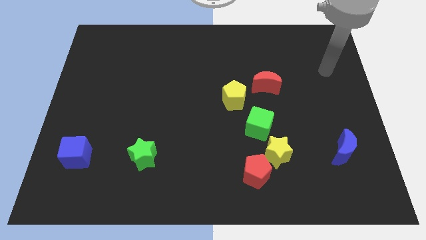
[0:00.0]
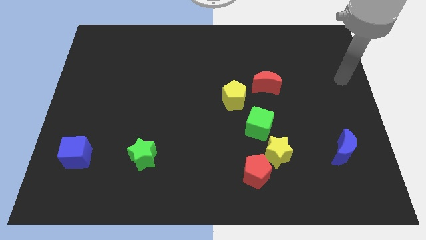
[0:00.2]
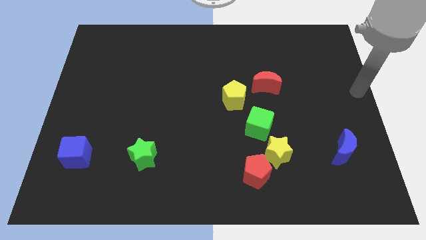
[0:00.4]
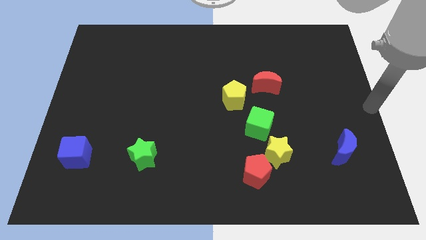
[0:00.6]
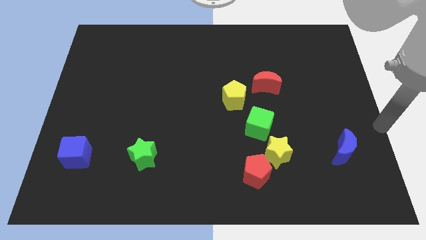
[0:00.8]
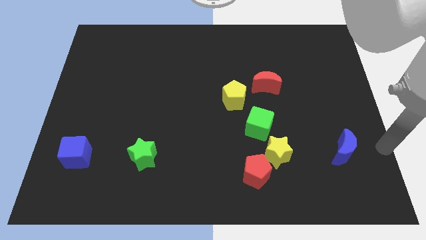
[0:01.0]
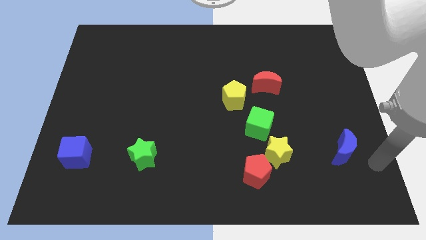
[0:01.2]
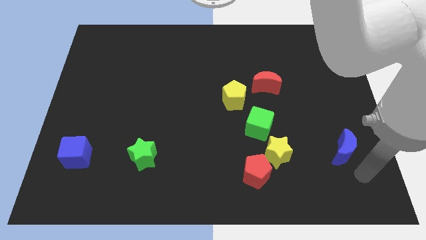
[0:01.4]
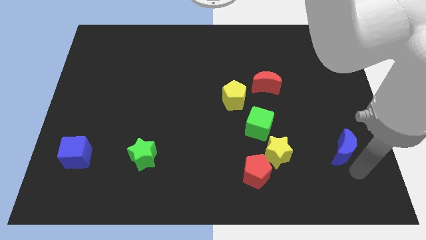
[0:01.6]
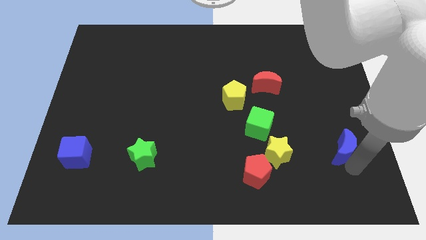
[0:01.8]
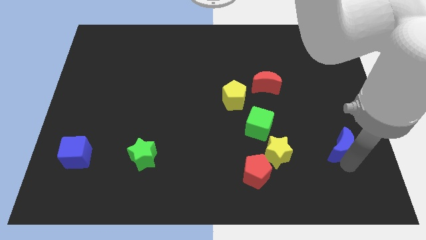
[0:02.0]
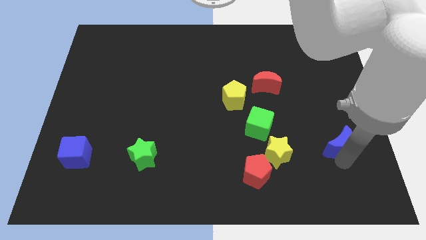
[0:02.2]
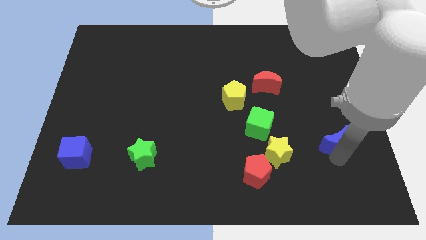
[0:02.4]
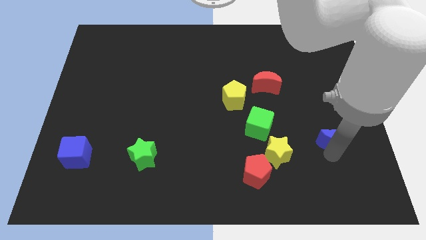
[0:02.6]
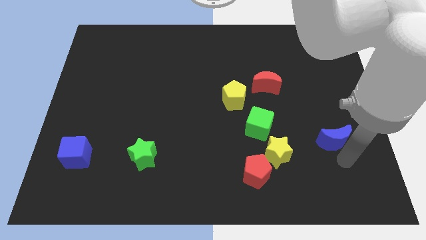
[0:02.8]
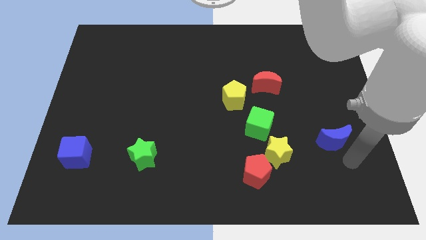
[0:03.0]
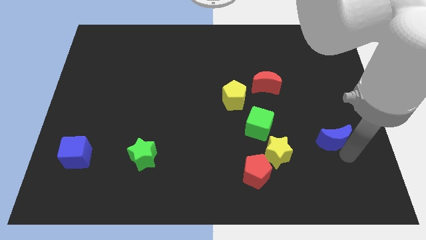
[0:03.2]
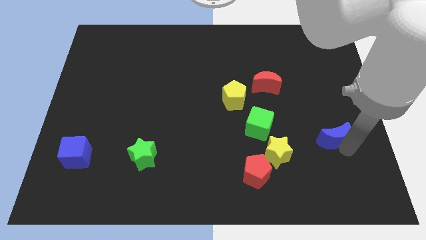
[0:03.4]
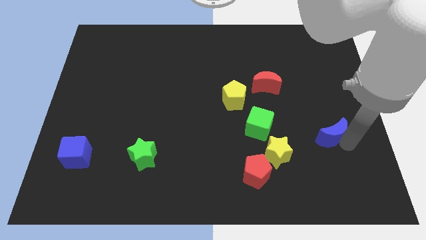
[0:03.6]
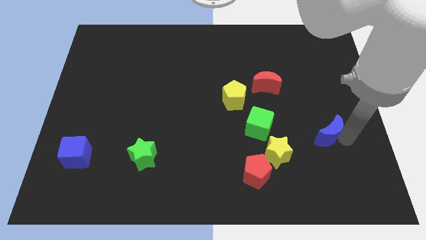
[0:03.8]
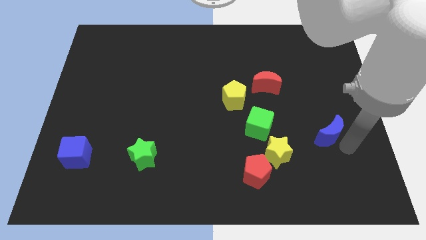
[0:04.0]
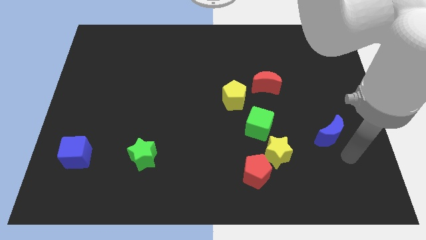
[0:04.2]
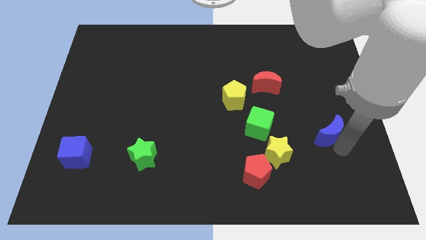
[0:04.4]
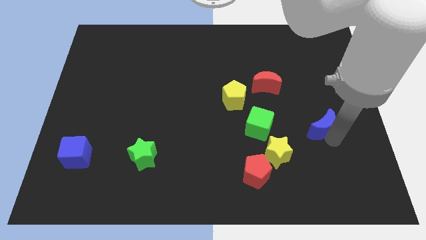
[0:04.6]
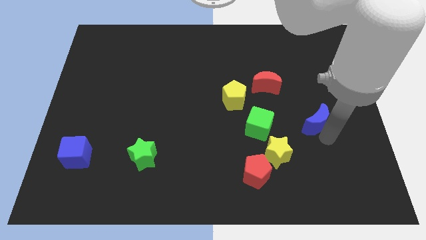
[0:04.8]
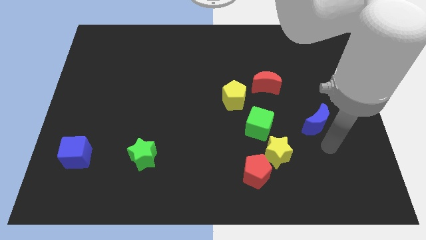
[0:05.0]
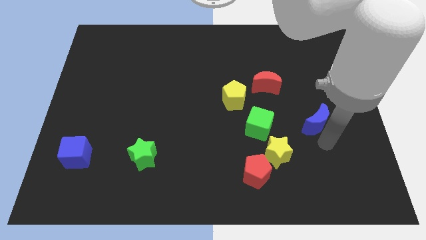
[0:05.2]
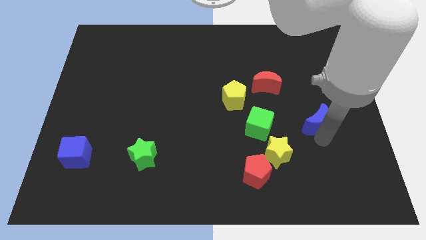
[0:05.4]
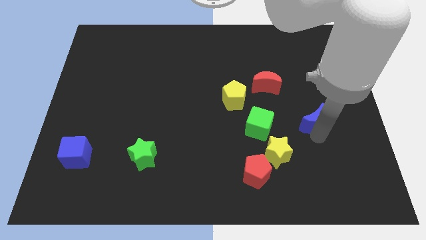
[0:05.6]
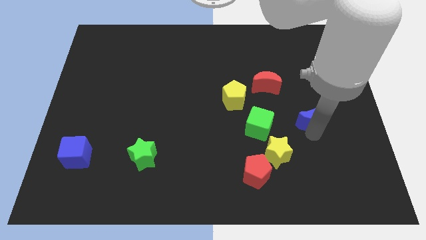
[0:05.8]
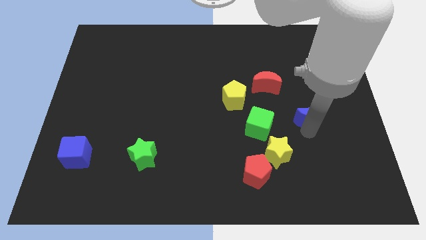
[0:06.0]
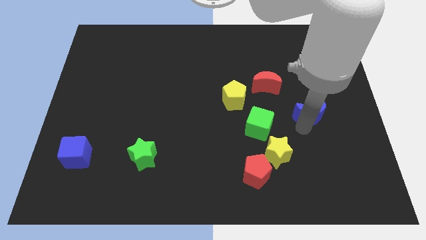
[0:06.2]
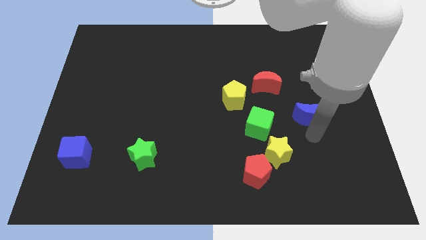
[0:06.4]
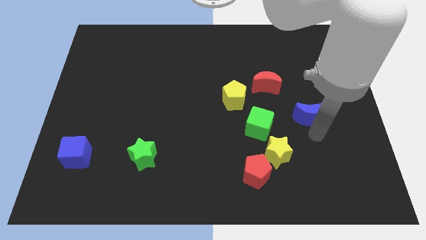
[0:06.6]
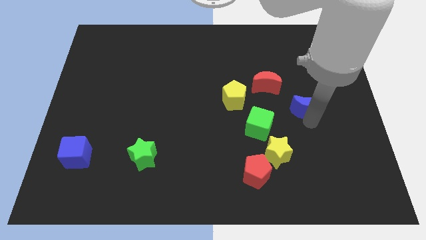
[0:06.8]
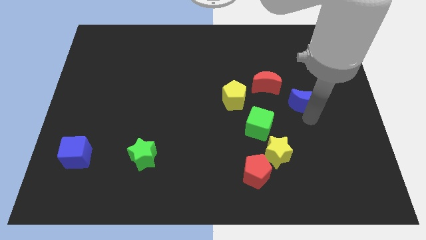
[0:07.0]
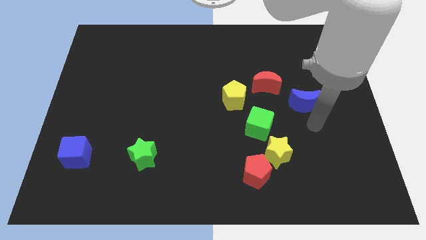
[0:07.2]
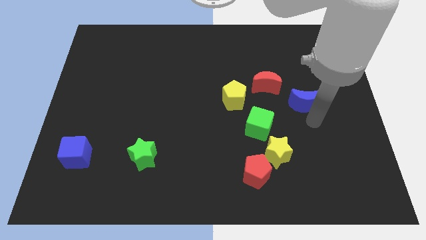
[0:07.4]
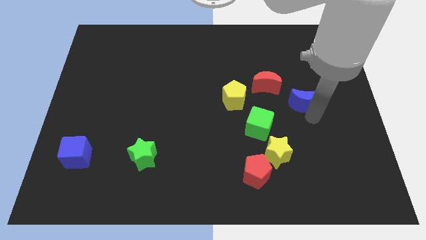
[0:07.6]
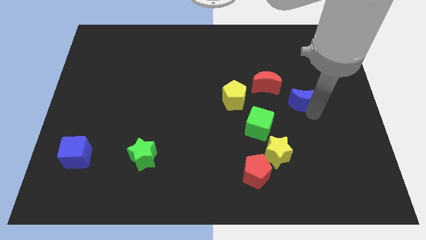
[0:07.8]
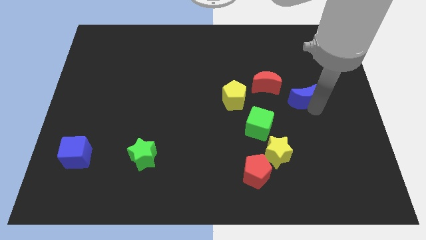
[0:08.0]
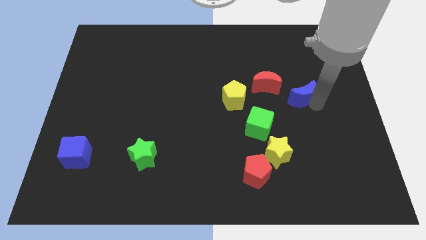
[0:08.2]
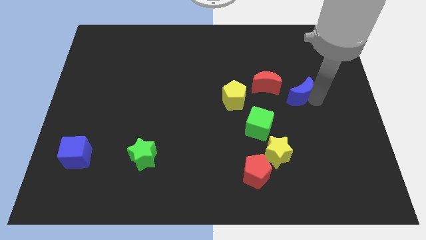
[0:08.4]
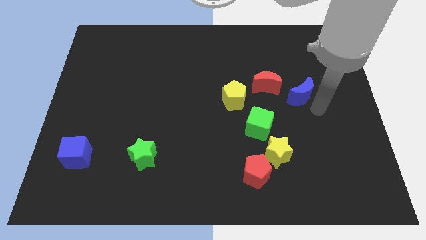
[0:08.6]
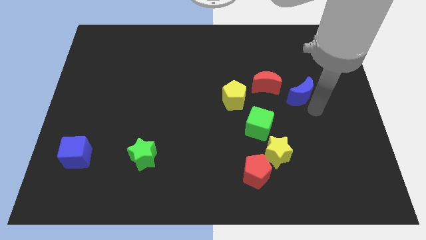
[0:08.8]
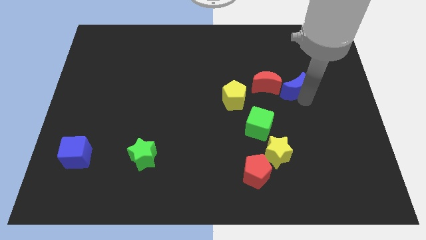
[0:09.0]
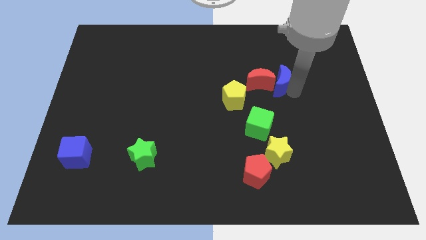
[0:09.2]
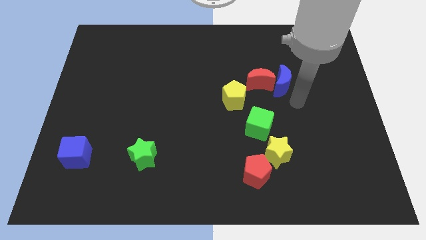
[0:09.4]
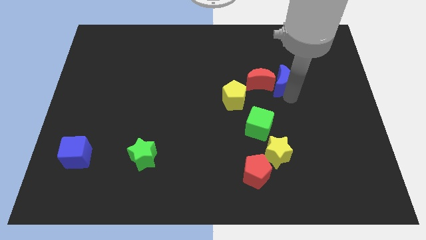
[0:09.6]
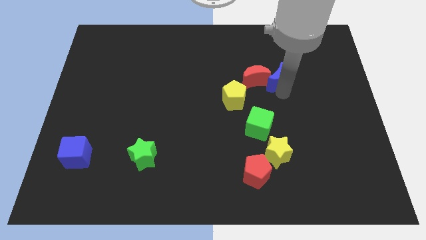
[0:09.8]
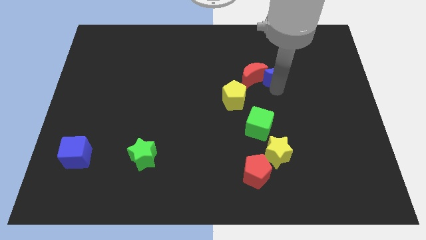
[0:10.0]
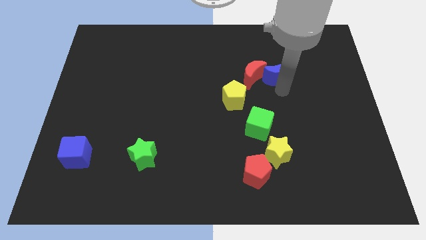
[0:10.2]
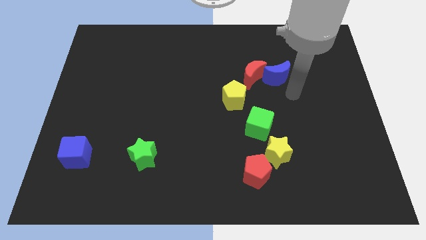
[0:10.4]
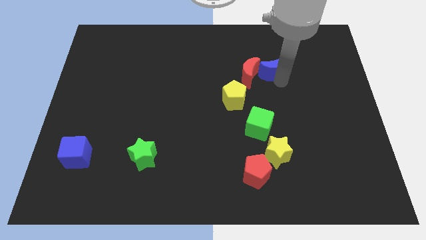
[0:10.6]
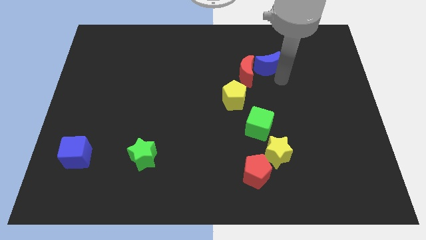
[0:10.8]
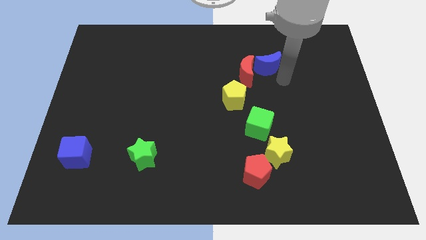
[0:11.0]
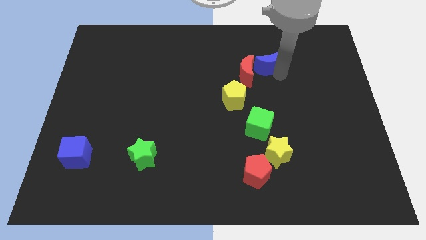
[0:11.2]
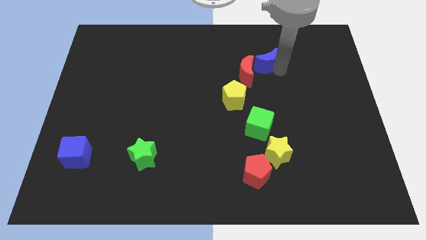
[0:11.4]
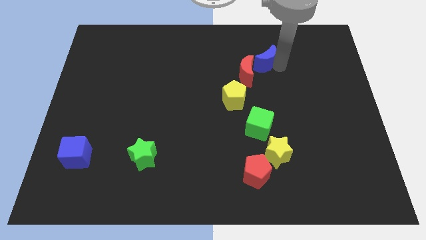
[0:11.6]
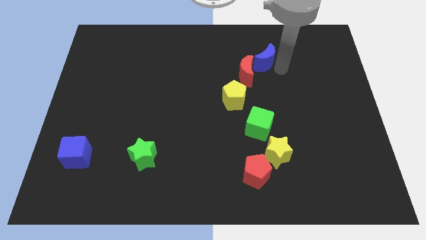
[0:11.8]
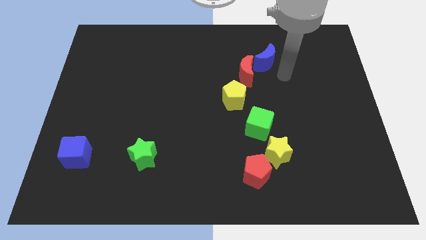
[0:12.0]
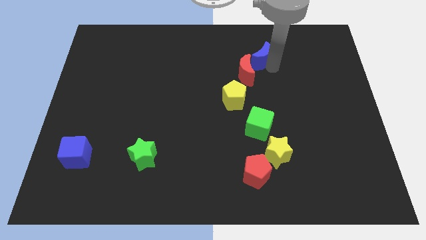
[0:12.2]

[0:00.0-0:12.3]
move the blue moon above the red moon
